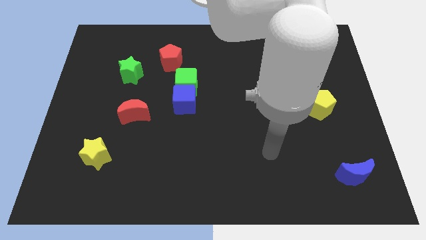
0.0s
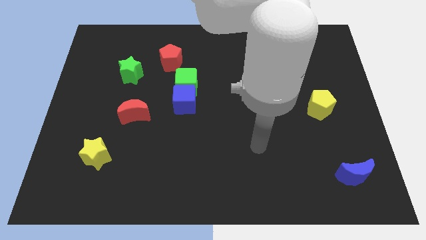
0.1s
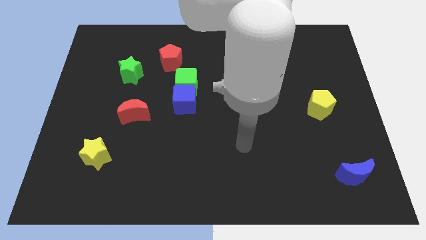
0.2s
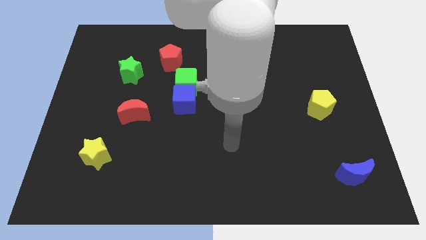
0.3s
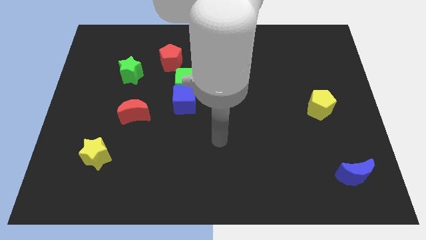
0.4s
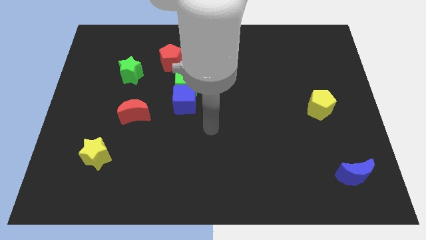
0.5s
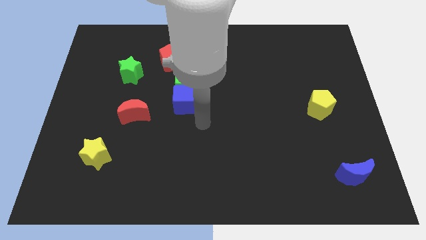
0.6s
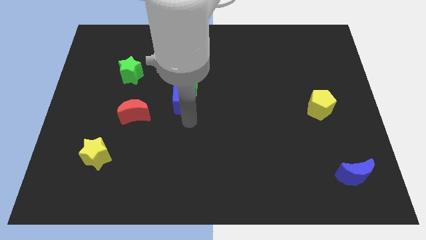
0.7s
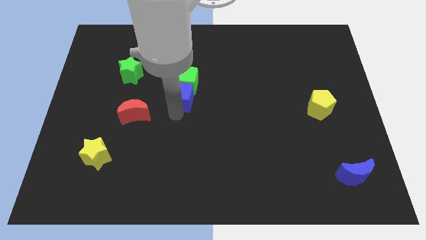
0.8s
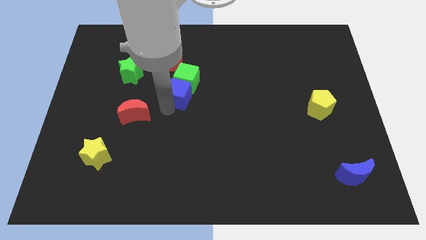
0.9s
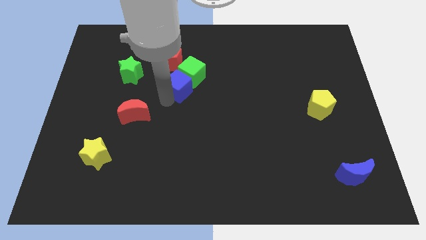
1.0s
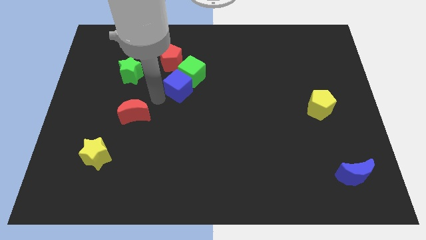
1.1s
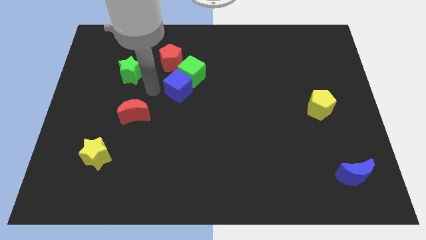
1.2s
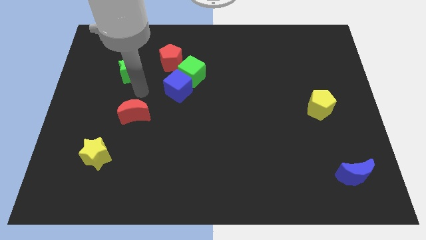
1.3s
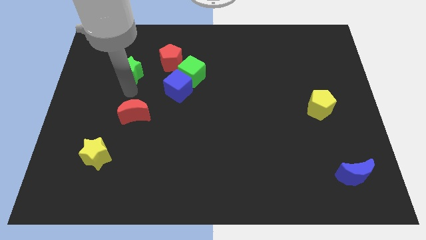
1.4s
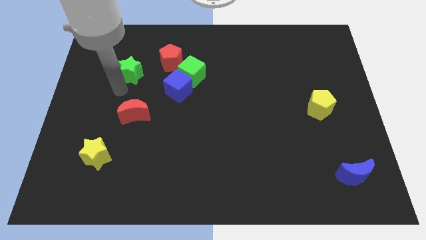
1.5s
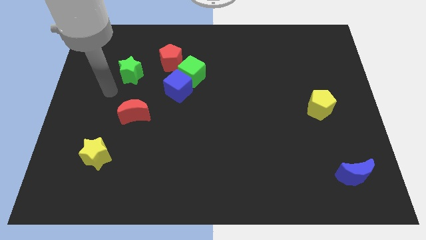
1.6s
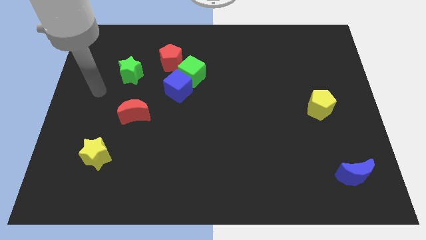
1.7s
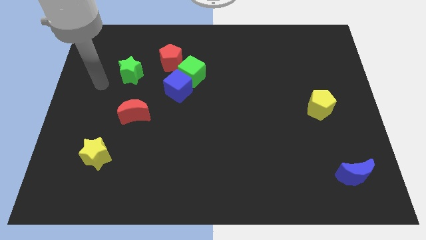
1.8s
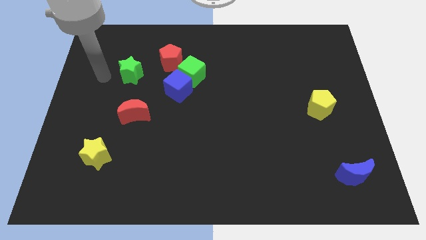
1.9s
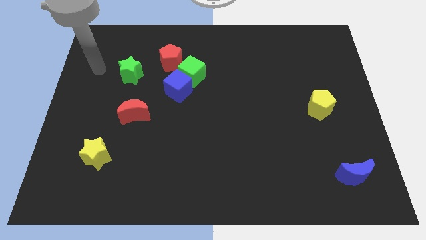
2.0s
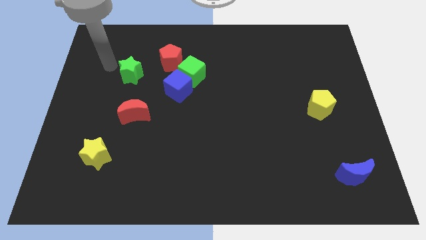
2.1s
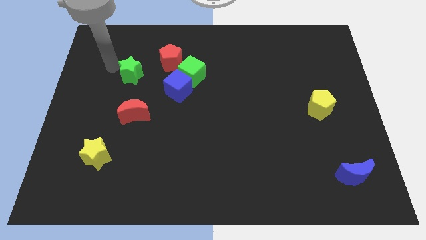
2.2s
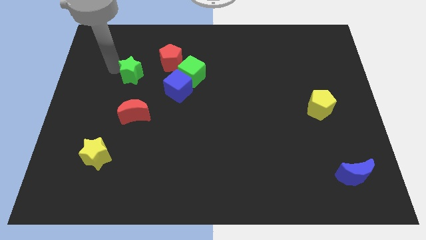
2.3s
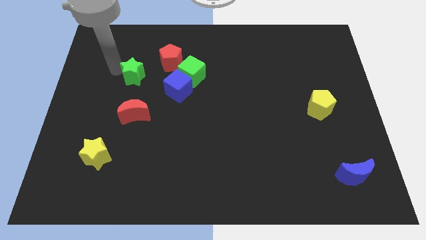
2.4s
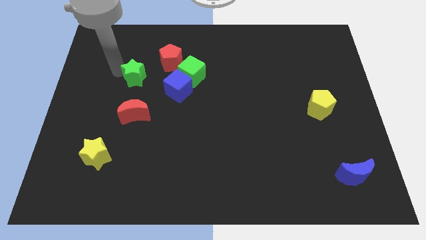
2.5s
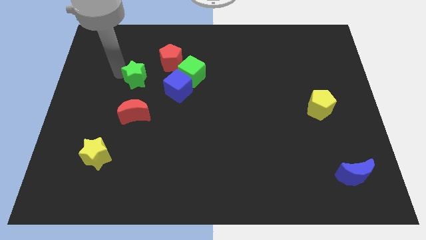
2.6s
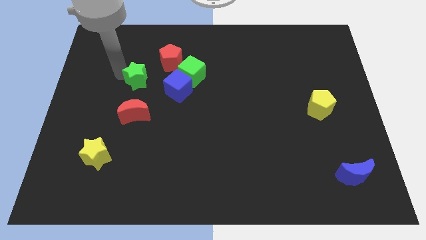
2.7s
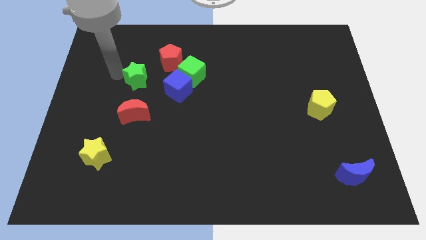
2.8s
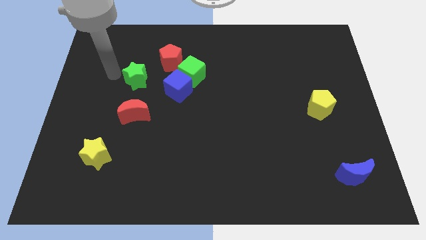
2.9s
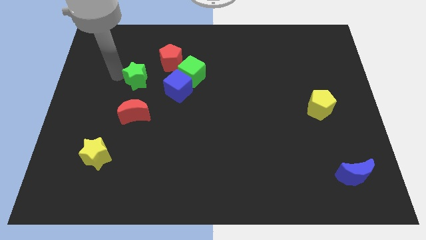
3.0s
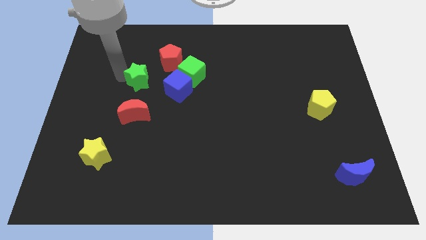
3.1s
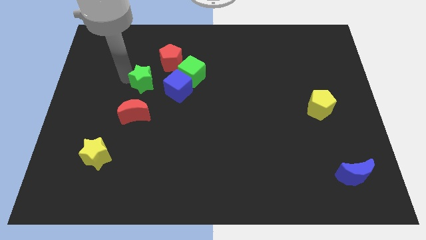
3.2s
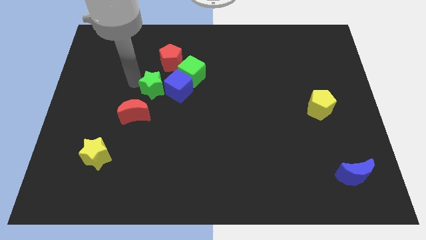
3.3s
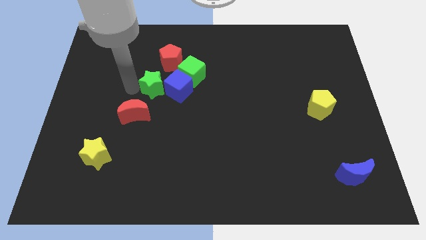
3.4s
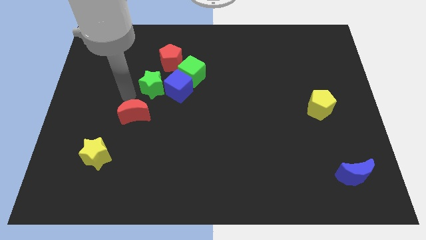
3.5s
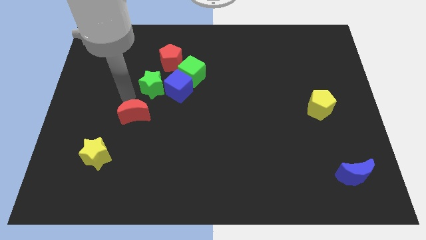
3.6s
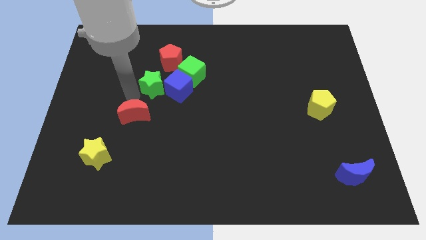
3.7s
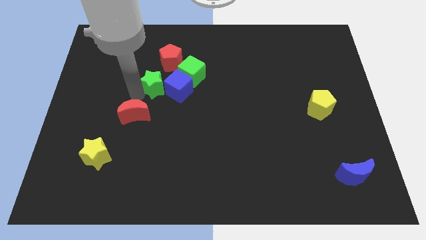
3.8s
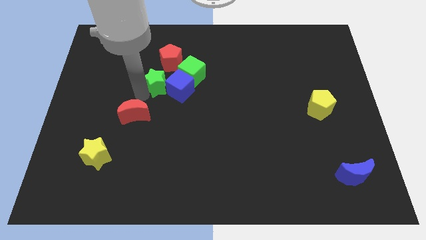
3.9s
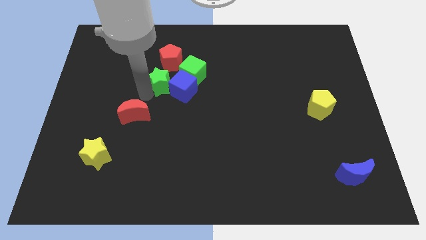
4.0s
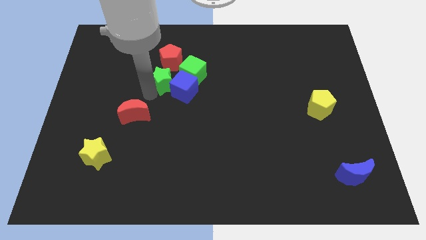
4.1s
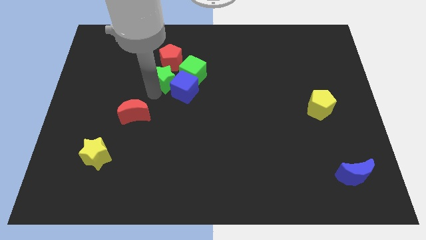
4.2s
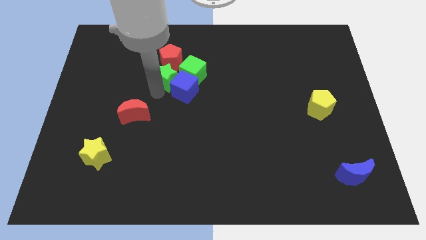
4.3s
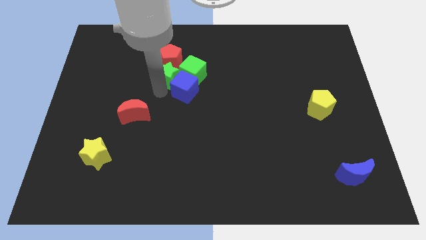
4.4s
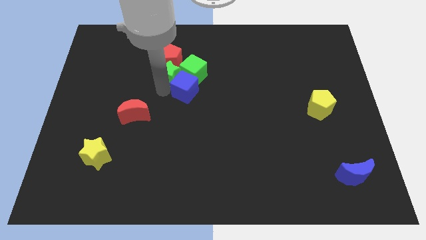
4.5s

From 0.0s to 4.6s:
push the green star close to the green cube

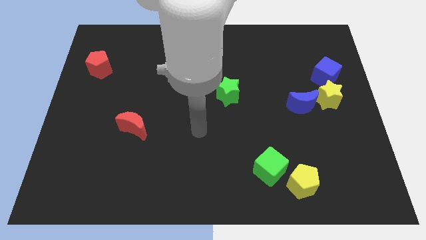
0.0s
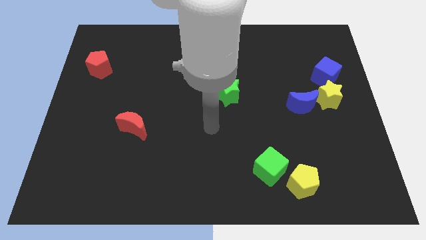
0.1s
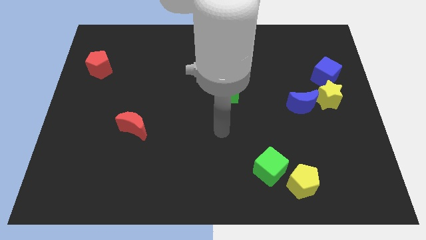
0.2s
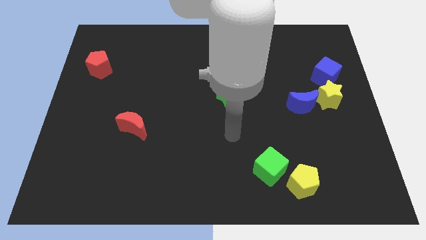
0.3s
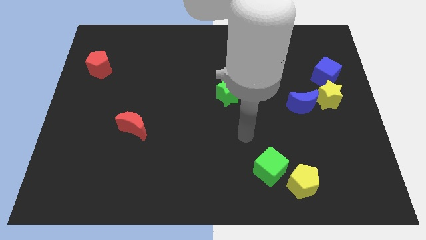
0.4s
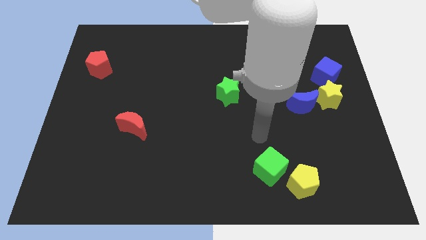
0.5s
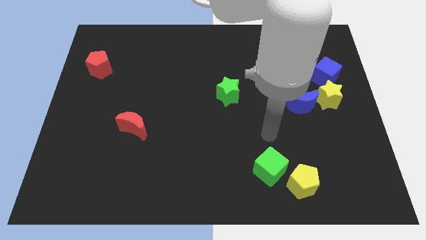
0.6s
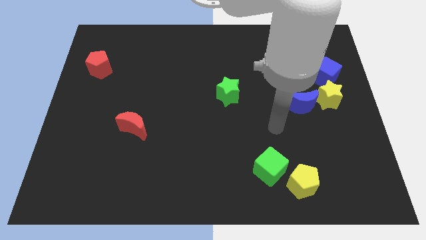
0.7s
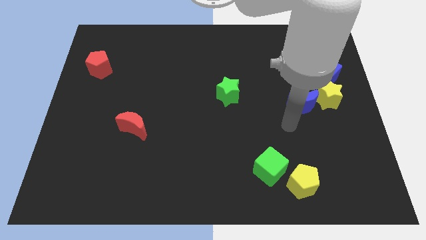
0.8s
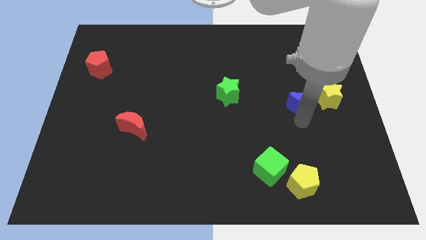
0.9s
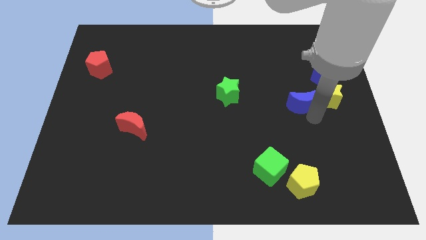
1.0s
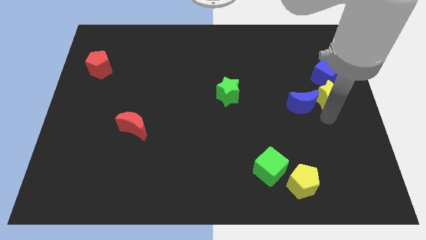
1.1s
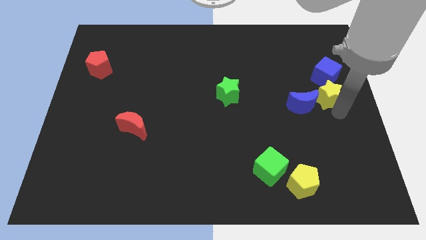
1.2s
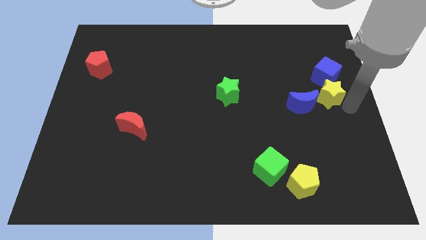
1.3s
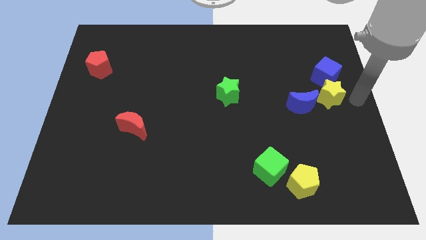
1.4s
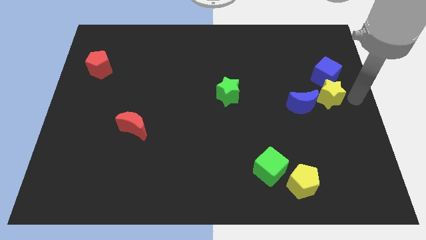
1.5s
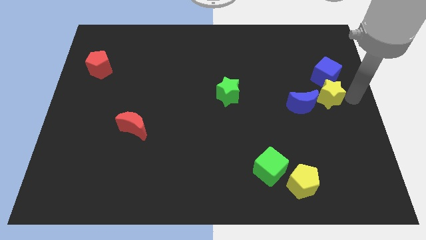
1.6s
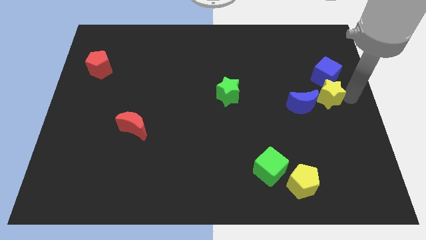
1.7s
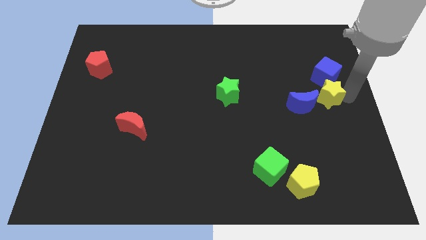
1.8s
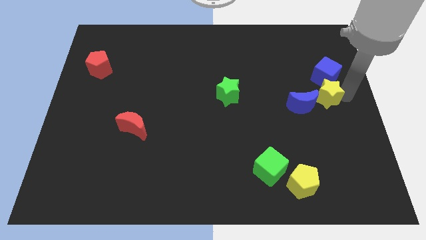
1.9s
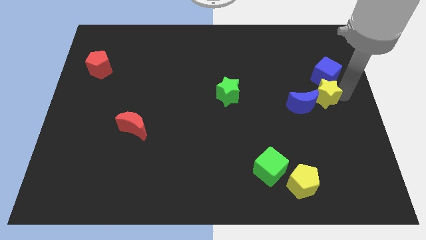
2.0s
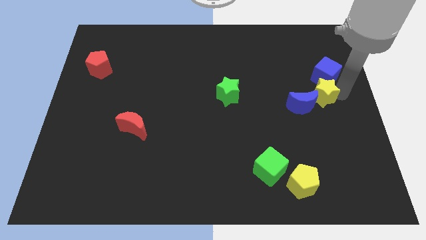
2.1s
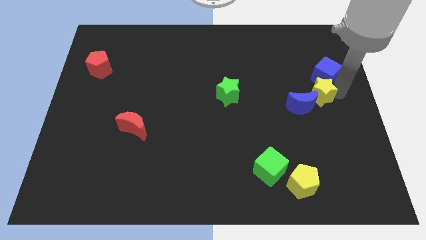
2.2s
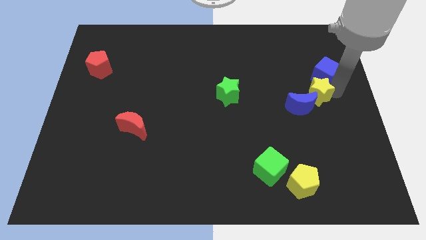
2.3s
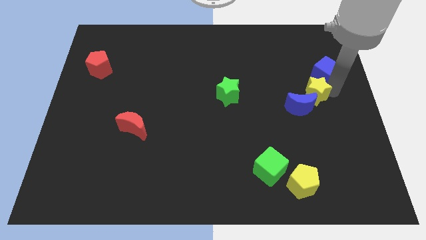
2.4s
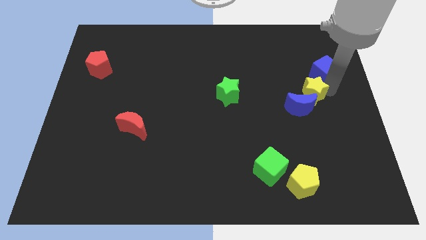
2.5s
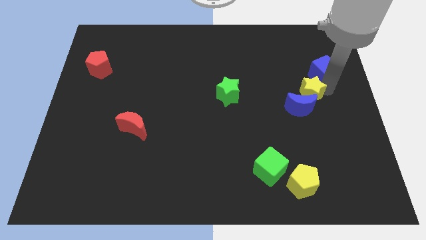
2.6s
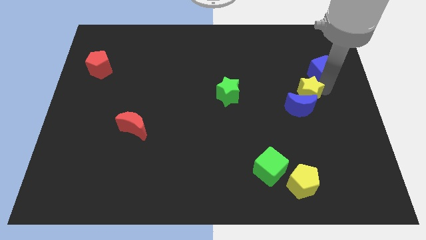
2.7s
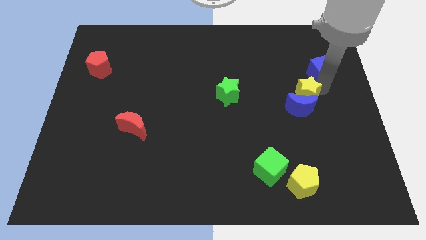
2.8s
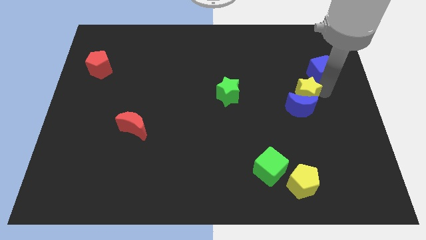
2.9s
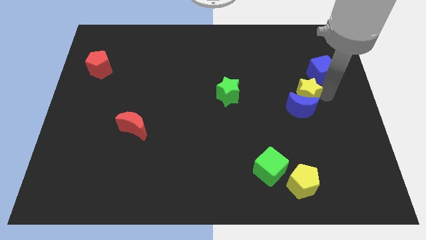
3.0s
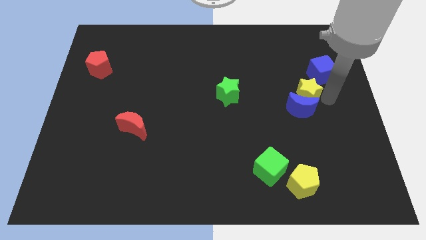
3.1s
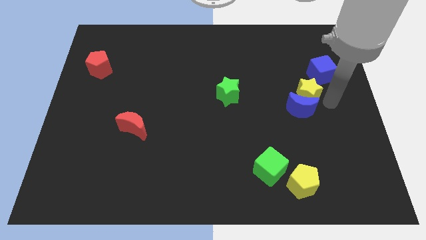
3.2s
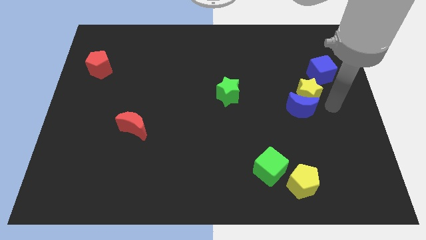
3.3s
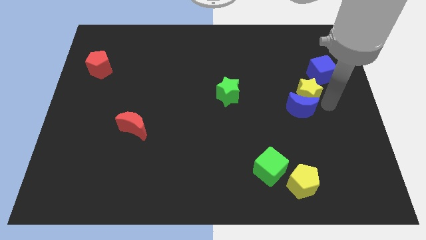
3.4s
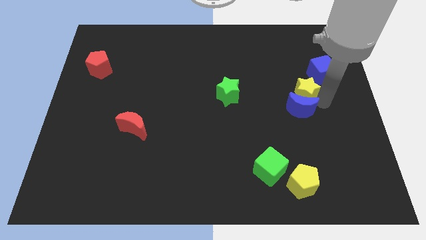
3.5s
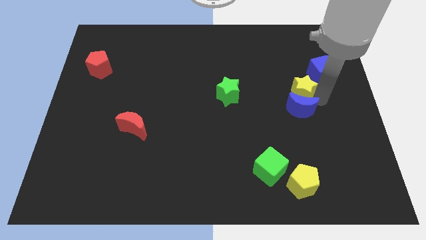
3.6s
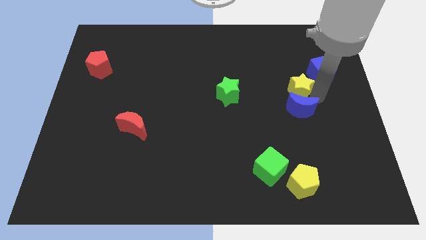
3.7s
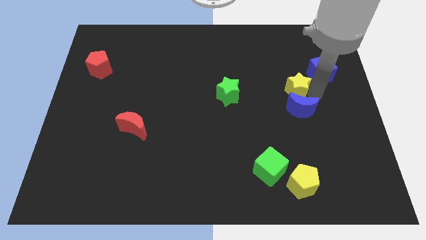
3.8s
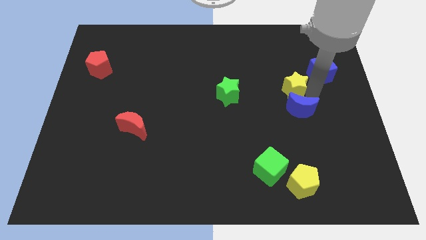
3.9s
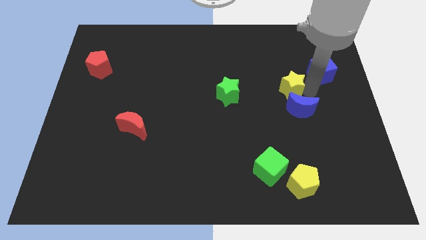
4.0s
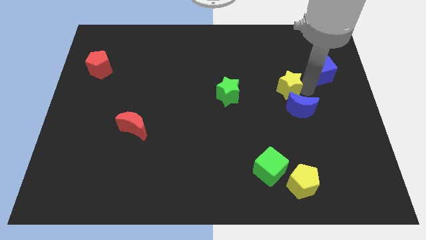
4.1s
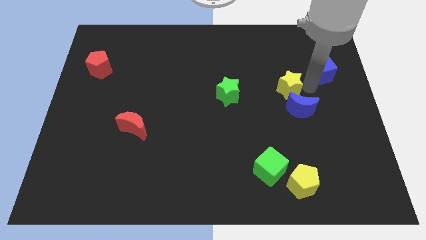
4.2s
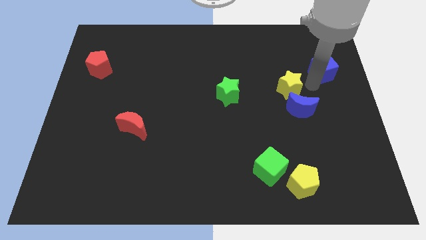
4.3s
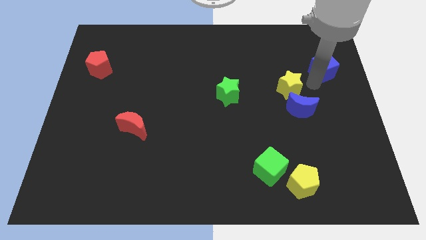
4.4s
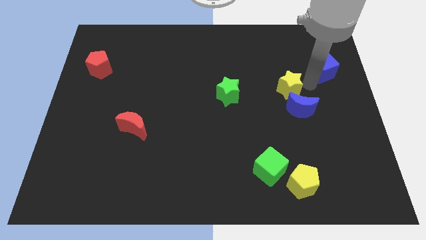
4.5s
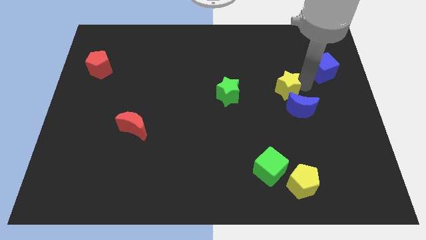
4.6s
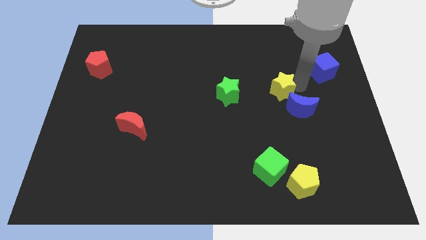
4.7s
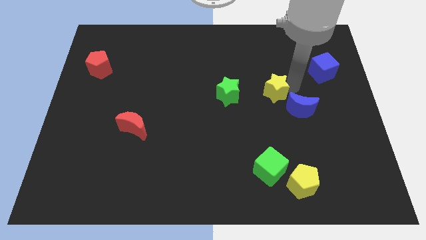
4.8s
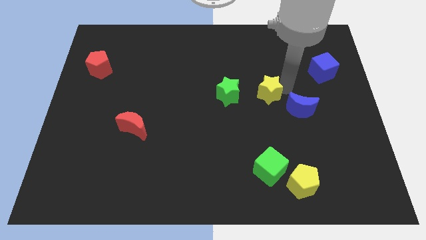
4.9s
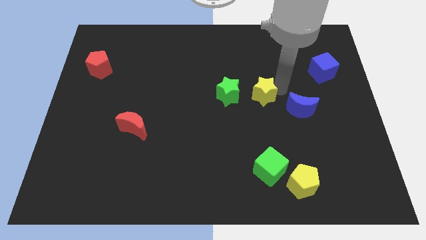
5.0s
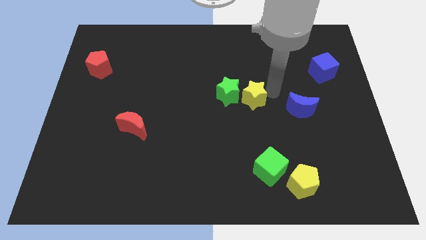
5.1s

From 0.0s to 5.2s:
slide the yellow star next to the green star
